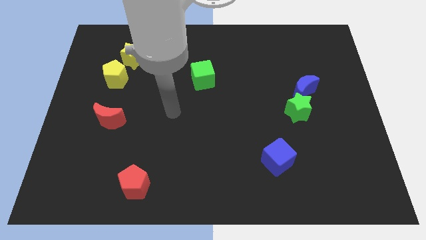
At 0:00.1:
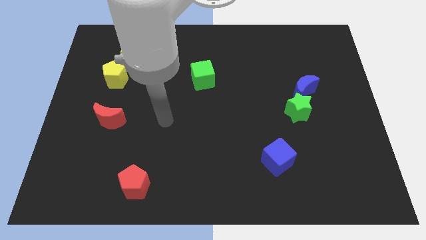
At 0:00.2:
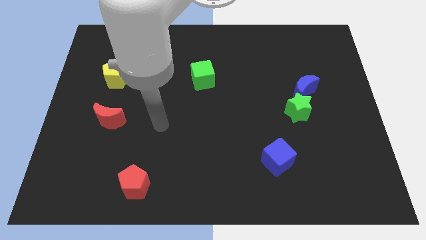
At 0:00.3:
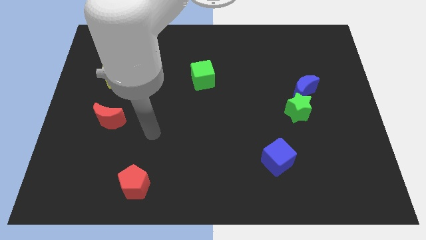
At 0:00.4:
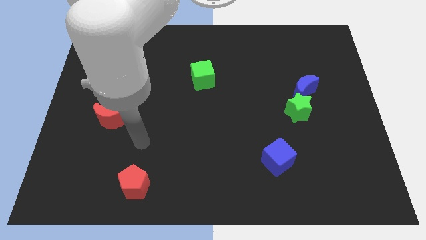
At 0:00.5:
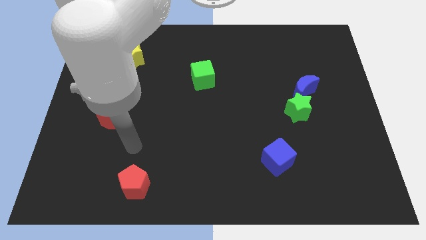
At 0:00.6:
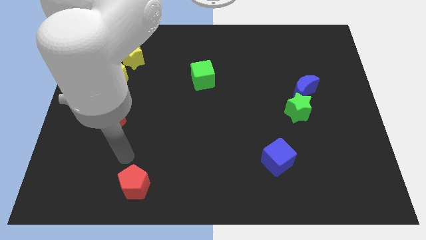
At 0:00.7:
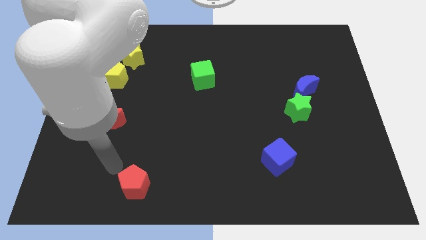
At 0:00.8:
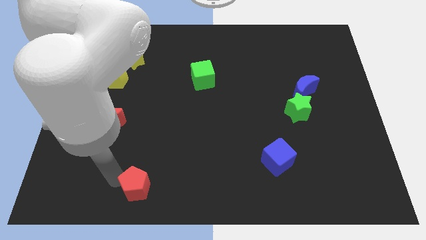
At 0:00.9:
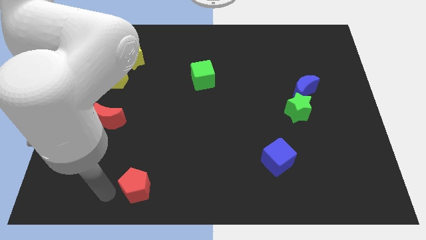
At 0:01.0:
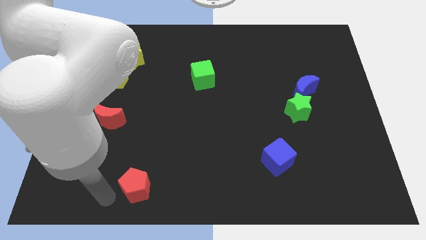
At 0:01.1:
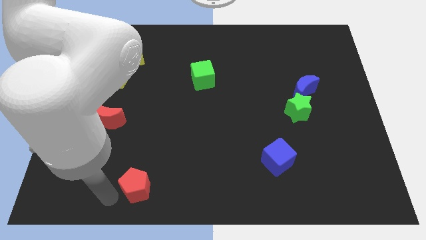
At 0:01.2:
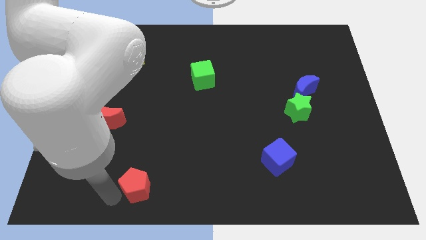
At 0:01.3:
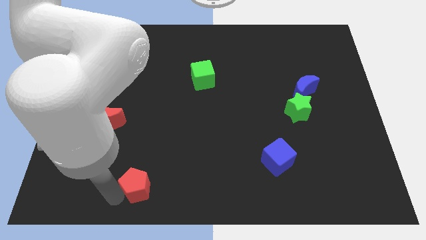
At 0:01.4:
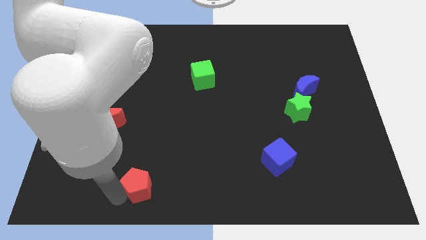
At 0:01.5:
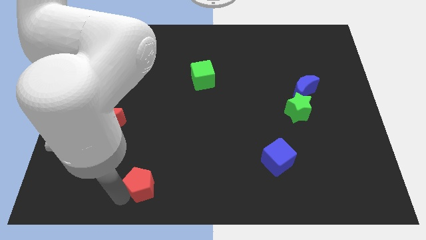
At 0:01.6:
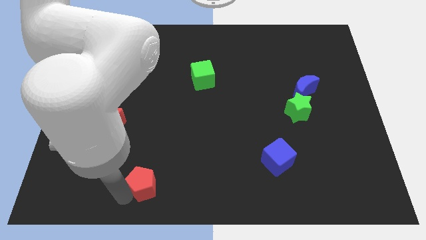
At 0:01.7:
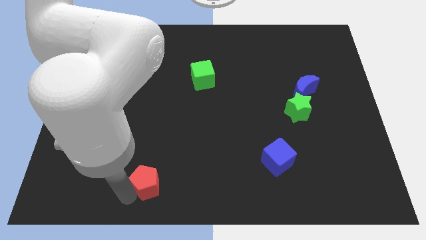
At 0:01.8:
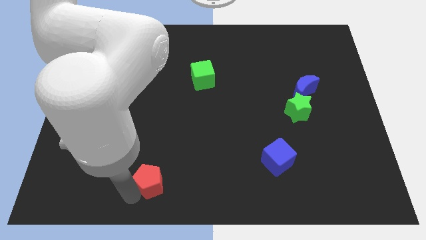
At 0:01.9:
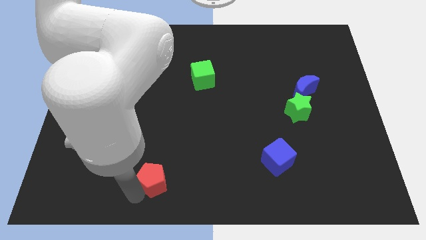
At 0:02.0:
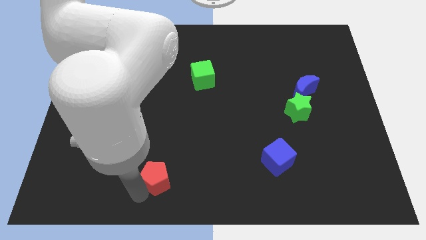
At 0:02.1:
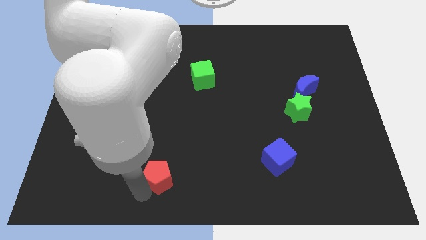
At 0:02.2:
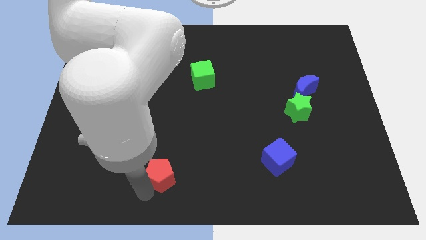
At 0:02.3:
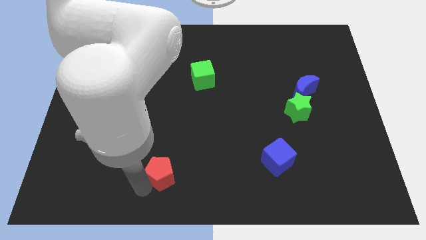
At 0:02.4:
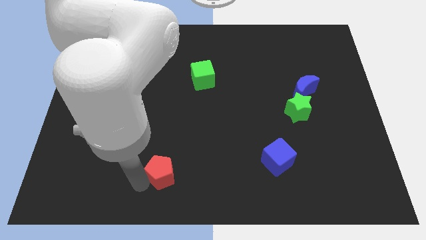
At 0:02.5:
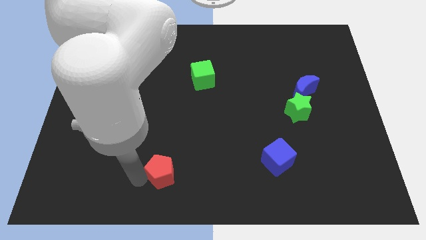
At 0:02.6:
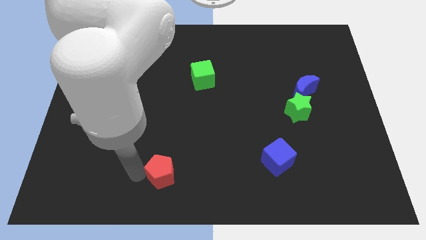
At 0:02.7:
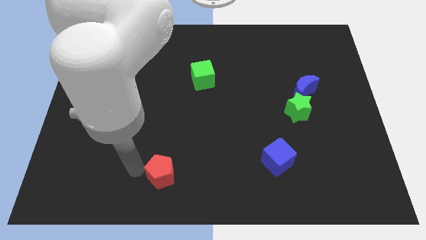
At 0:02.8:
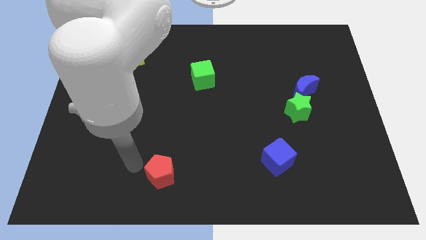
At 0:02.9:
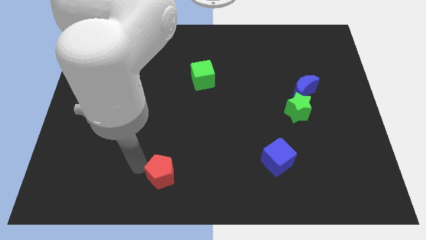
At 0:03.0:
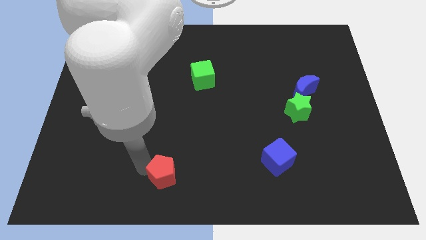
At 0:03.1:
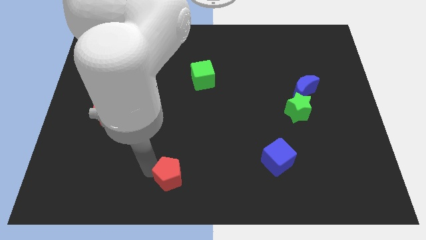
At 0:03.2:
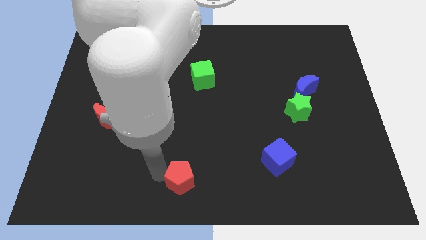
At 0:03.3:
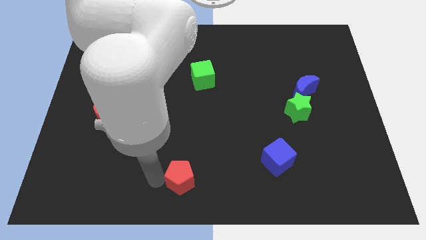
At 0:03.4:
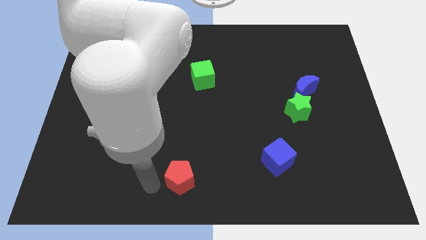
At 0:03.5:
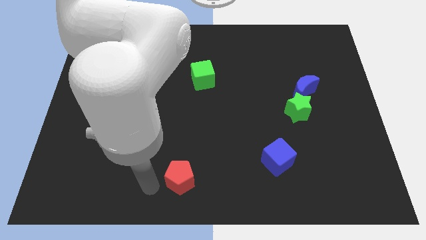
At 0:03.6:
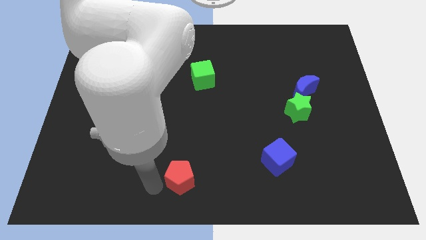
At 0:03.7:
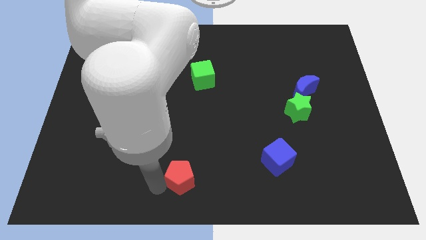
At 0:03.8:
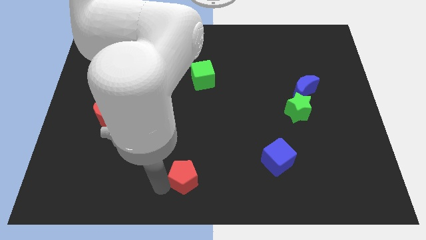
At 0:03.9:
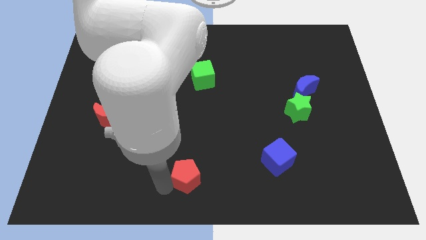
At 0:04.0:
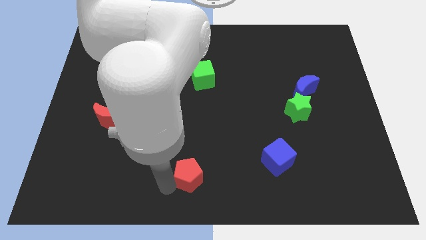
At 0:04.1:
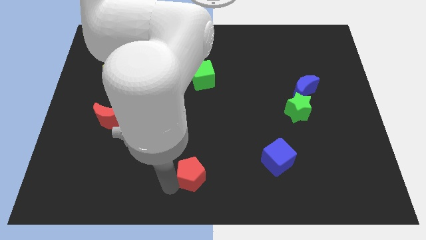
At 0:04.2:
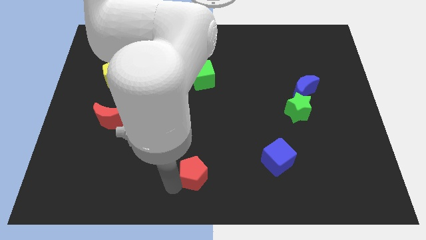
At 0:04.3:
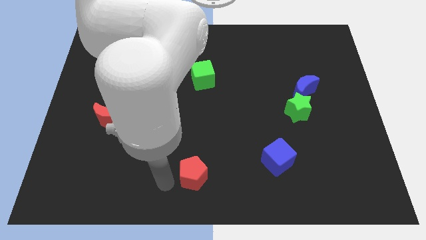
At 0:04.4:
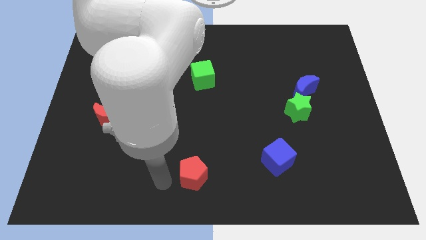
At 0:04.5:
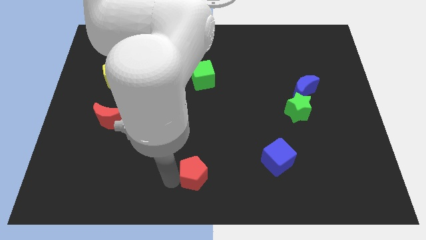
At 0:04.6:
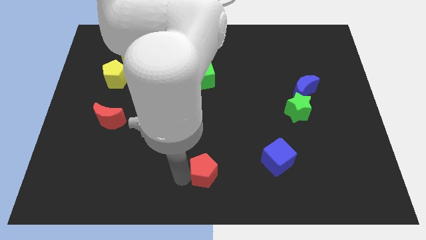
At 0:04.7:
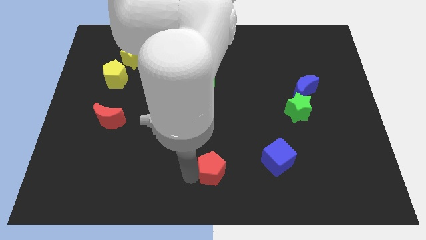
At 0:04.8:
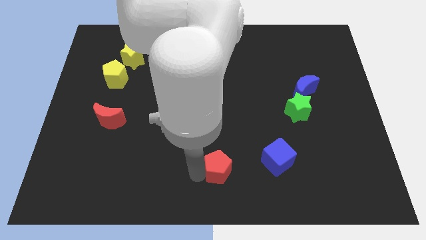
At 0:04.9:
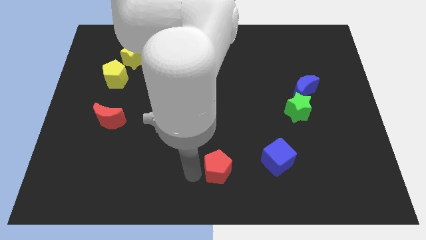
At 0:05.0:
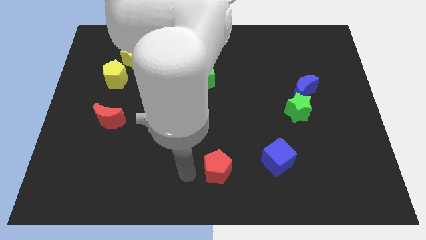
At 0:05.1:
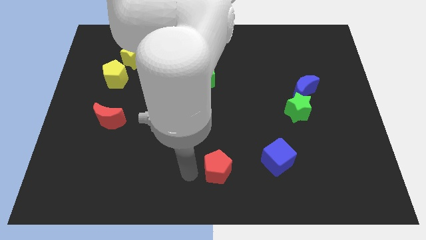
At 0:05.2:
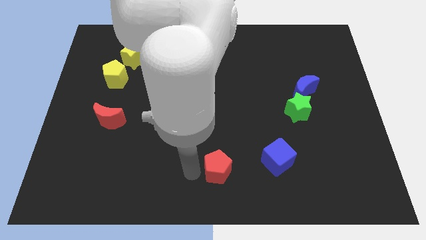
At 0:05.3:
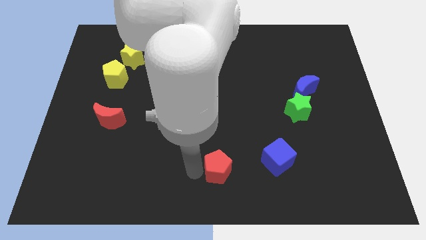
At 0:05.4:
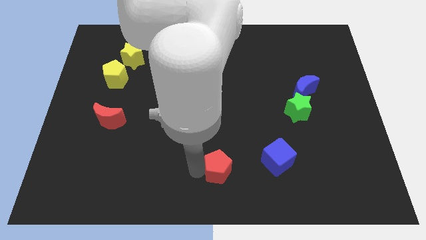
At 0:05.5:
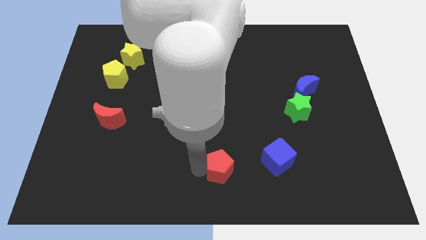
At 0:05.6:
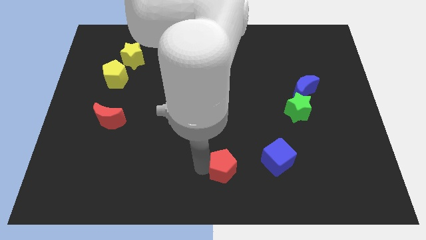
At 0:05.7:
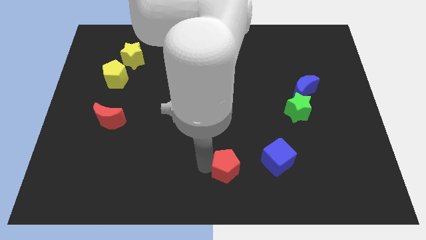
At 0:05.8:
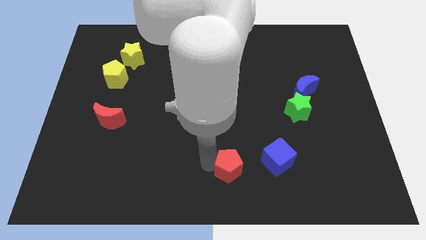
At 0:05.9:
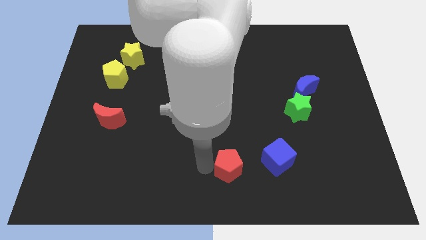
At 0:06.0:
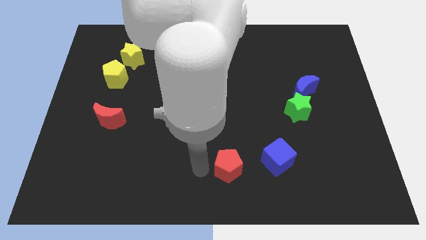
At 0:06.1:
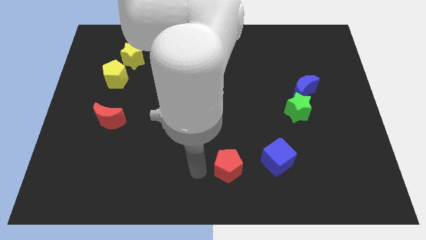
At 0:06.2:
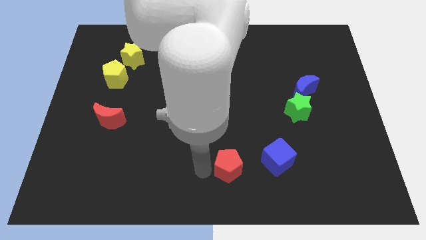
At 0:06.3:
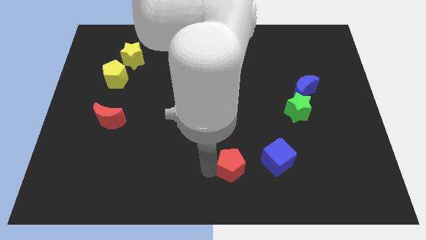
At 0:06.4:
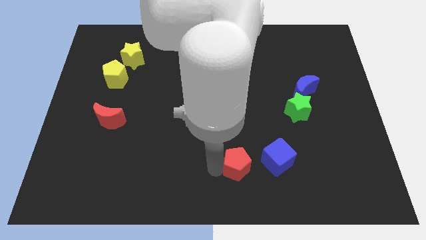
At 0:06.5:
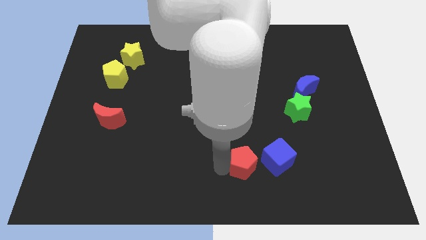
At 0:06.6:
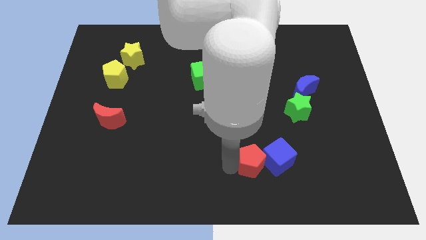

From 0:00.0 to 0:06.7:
put the red pentagon to the blue cube
